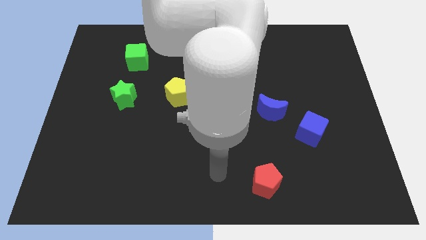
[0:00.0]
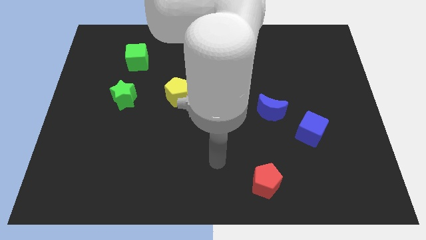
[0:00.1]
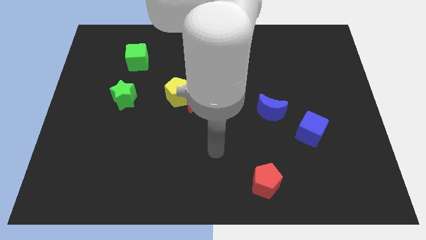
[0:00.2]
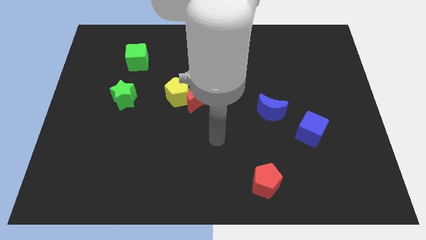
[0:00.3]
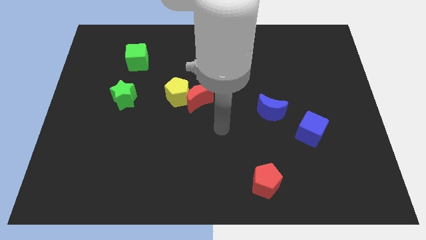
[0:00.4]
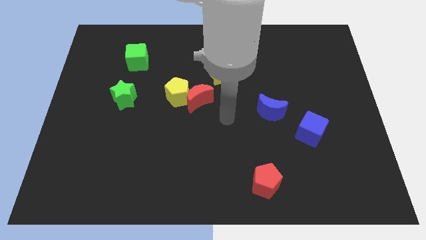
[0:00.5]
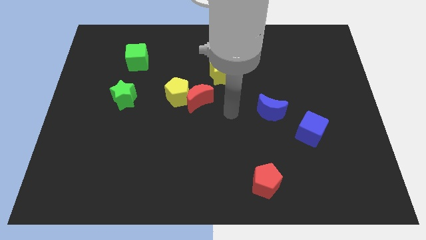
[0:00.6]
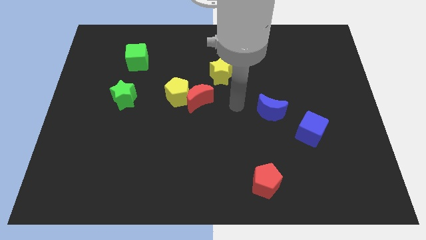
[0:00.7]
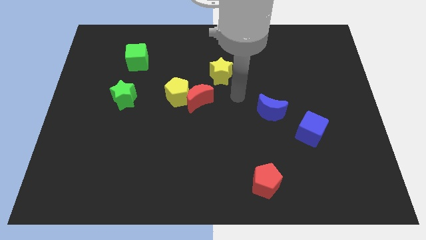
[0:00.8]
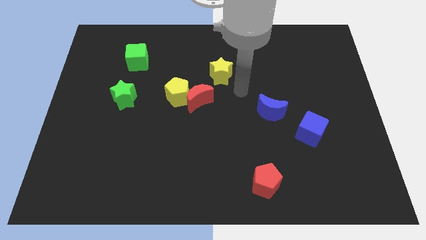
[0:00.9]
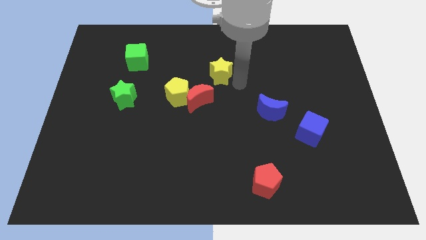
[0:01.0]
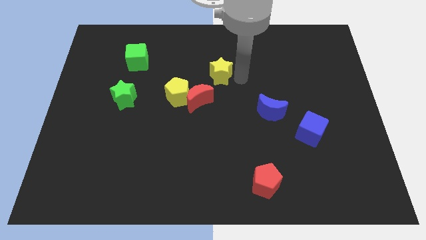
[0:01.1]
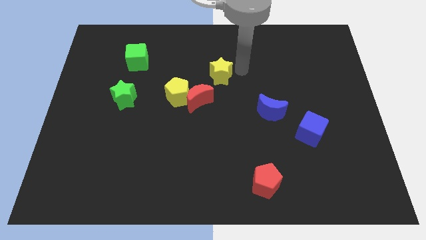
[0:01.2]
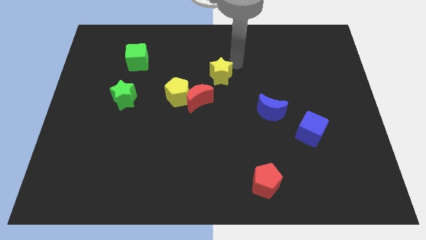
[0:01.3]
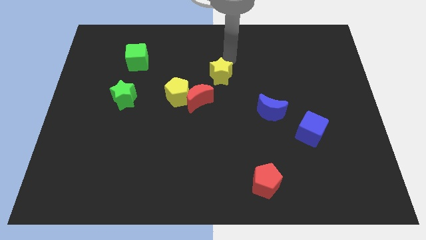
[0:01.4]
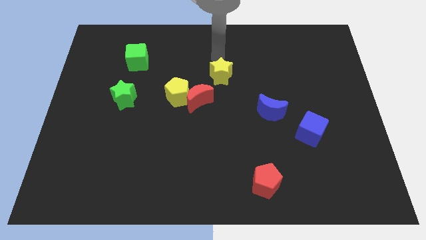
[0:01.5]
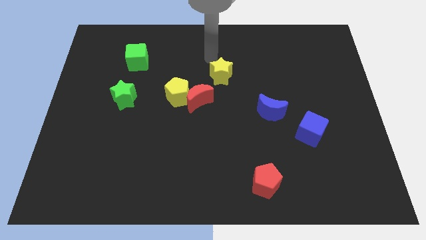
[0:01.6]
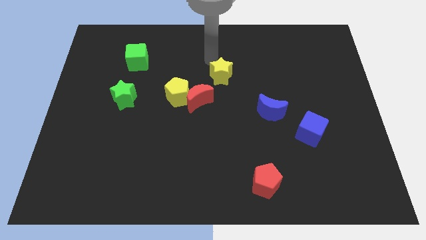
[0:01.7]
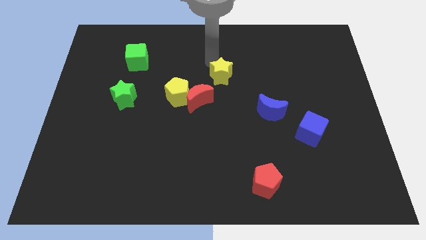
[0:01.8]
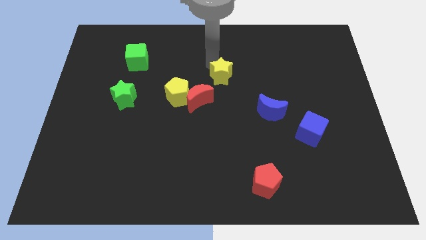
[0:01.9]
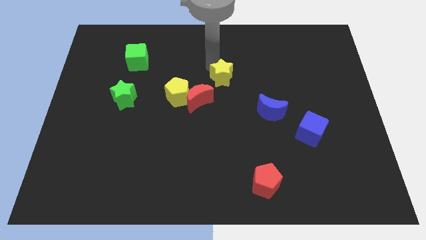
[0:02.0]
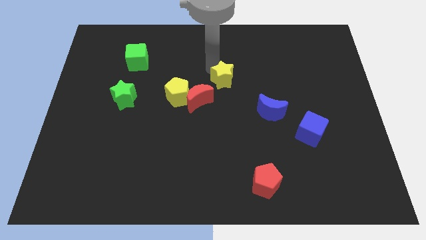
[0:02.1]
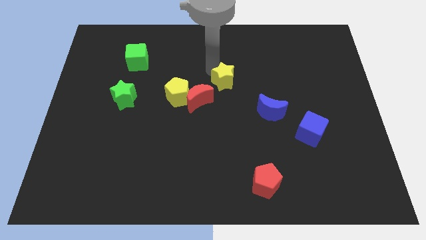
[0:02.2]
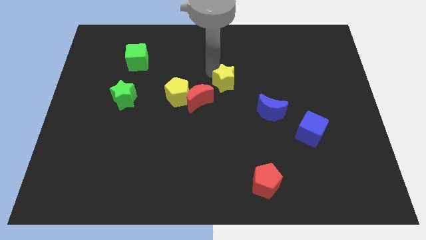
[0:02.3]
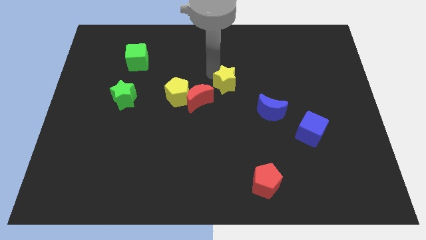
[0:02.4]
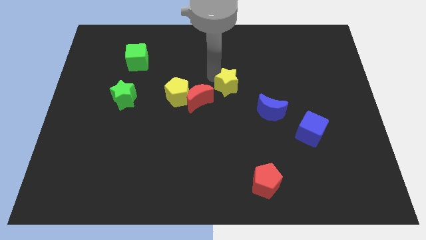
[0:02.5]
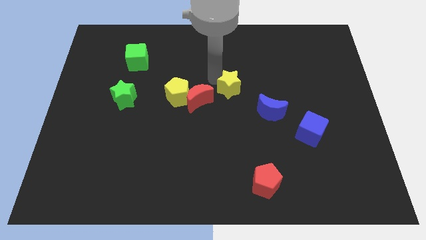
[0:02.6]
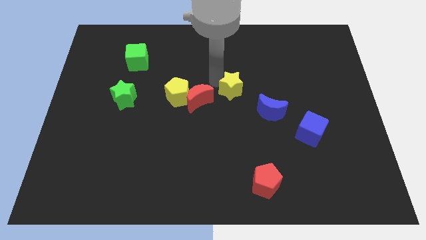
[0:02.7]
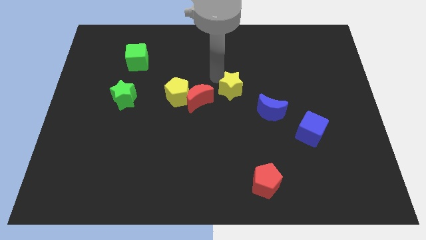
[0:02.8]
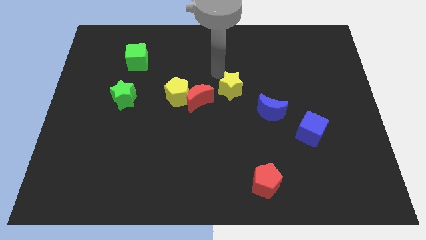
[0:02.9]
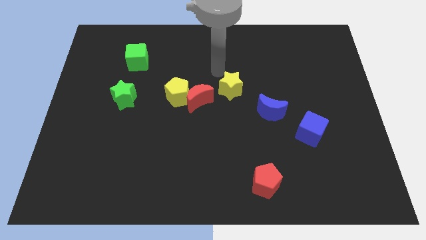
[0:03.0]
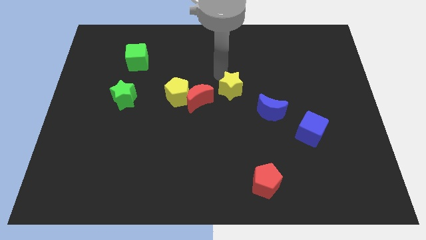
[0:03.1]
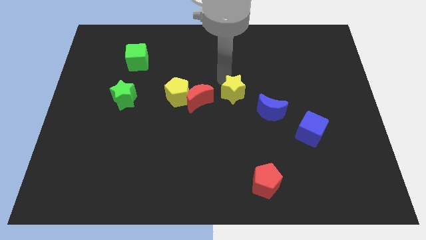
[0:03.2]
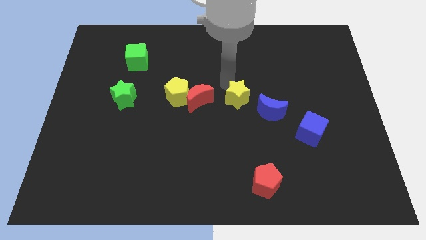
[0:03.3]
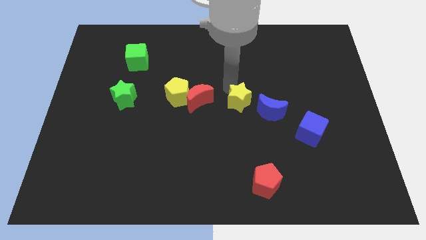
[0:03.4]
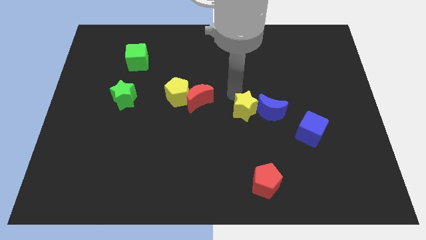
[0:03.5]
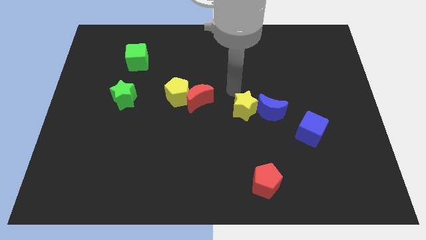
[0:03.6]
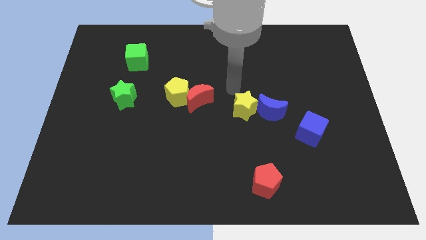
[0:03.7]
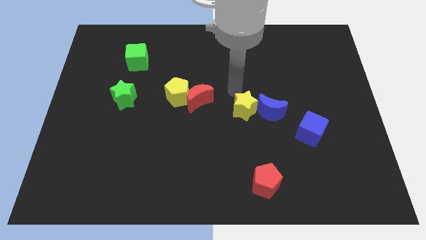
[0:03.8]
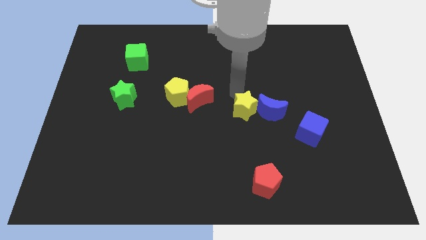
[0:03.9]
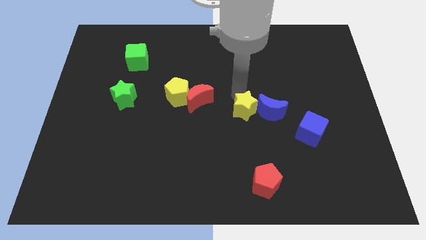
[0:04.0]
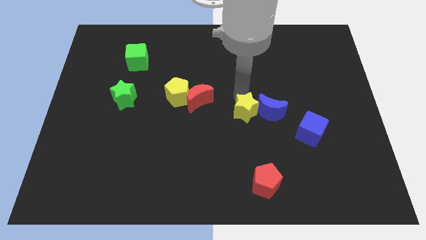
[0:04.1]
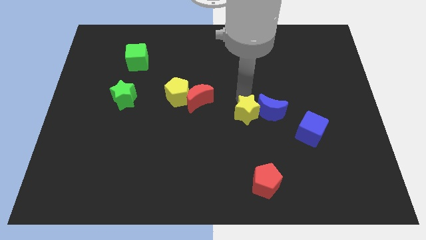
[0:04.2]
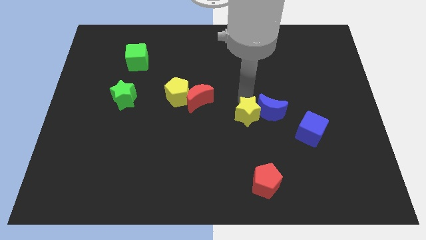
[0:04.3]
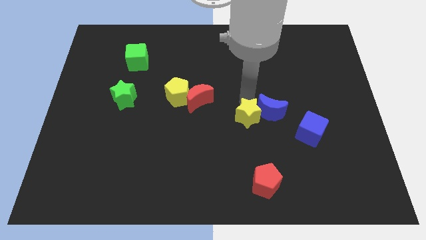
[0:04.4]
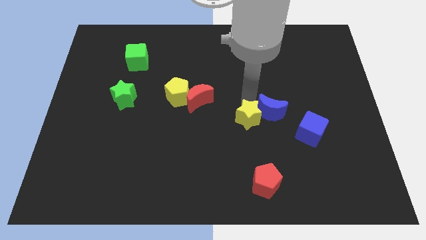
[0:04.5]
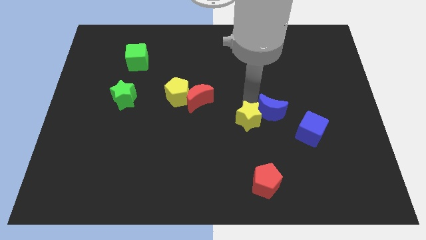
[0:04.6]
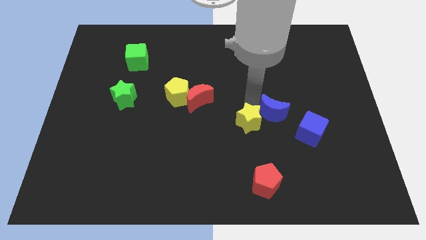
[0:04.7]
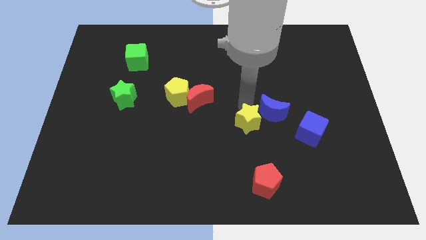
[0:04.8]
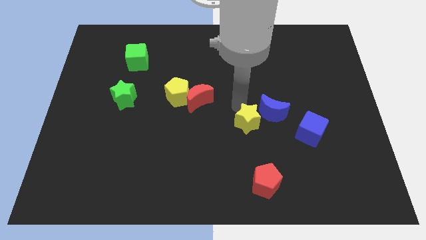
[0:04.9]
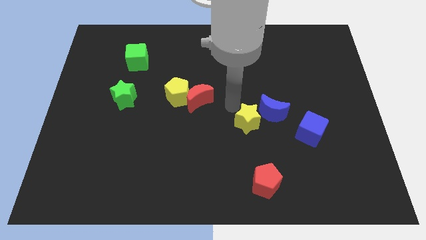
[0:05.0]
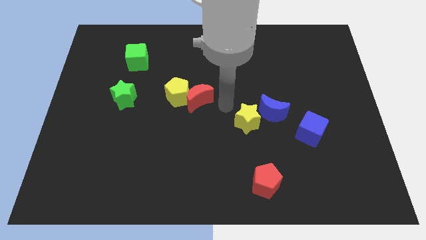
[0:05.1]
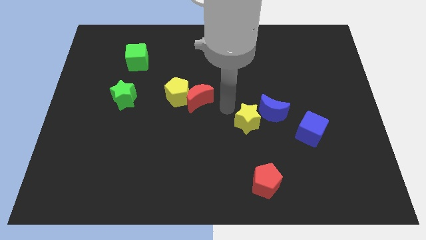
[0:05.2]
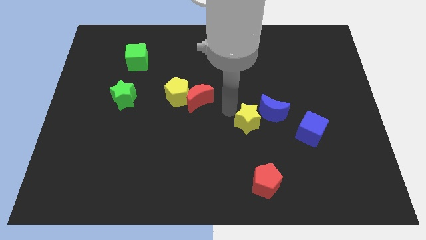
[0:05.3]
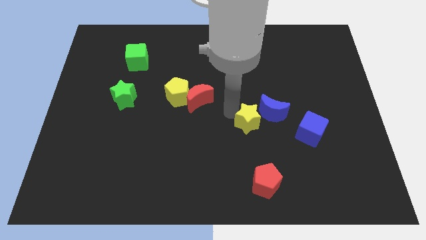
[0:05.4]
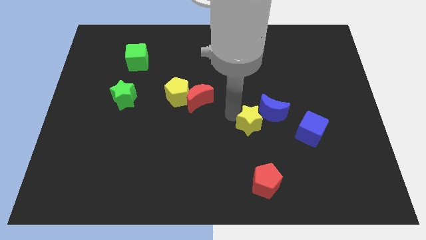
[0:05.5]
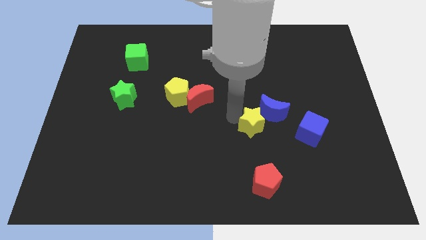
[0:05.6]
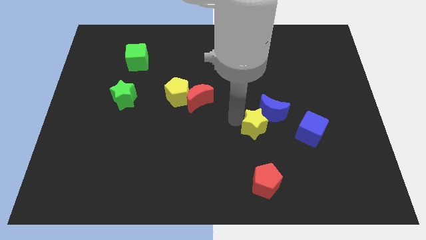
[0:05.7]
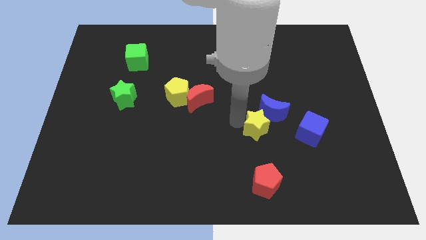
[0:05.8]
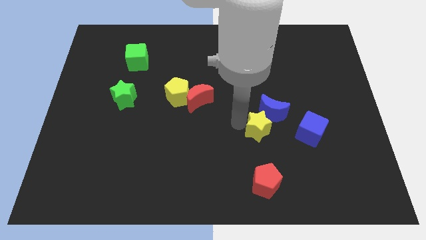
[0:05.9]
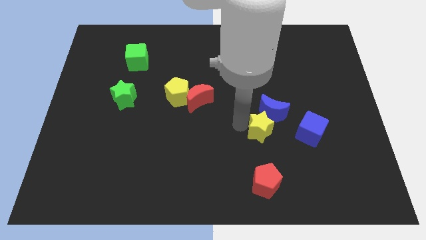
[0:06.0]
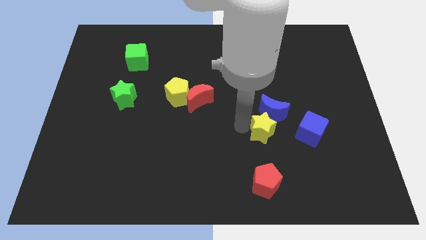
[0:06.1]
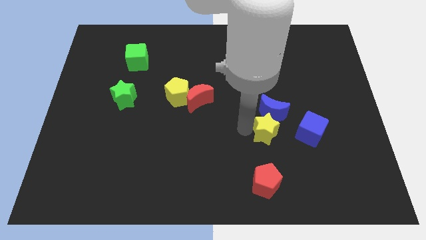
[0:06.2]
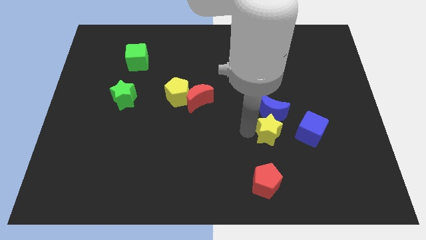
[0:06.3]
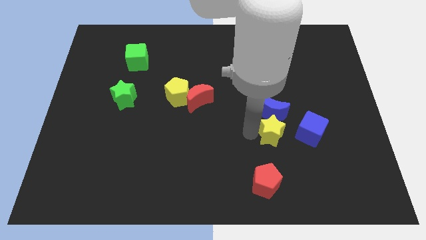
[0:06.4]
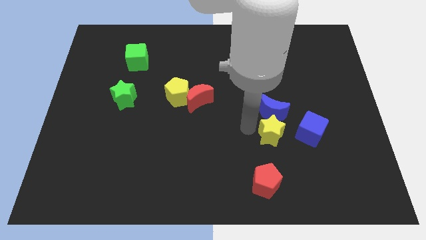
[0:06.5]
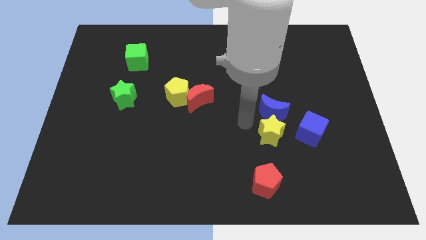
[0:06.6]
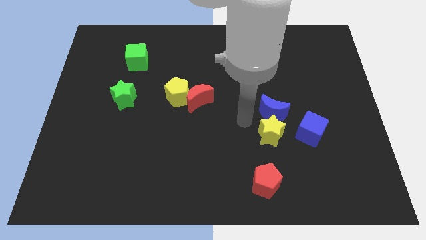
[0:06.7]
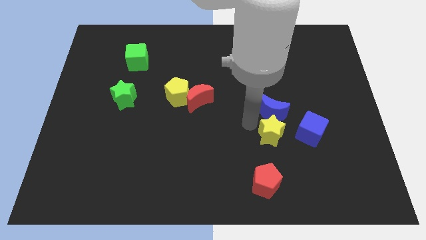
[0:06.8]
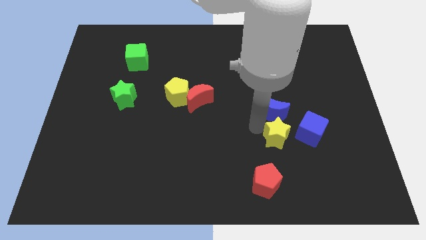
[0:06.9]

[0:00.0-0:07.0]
slide the yellow star downwards and then right

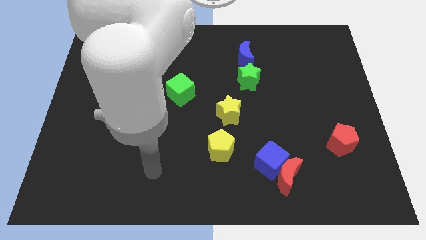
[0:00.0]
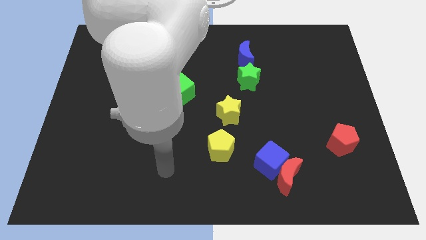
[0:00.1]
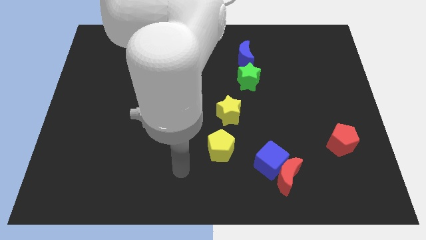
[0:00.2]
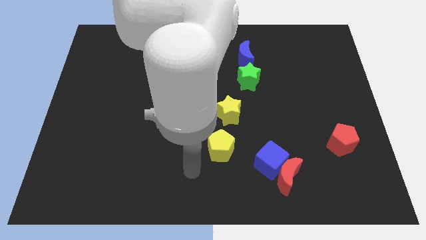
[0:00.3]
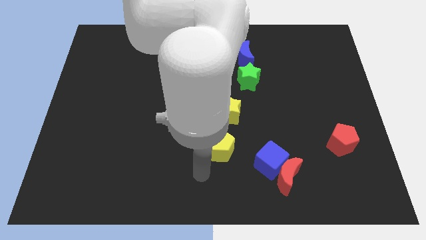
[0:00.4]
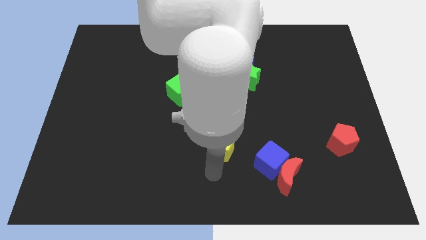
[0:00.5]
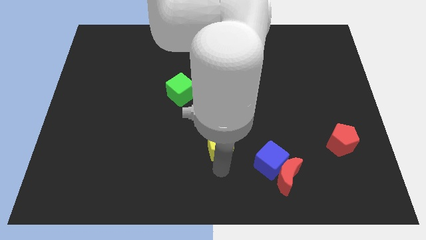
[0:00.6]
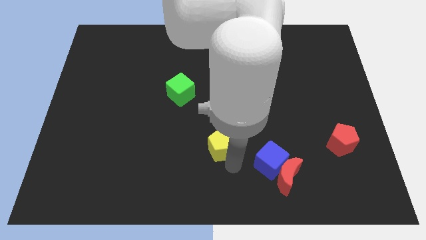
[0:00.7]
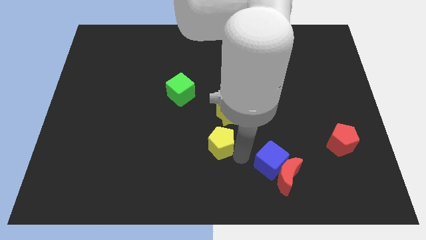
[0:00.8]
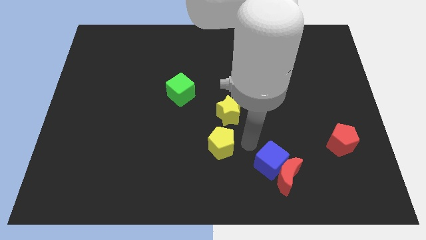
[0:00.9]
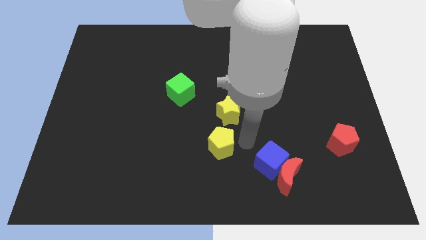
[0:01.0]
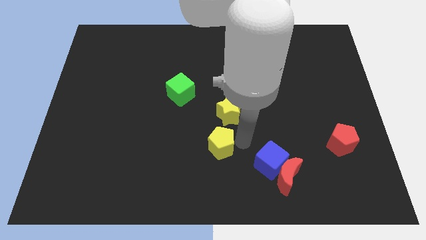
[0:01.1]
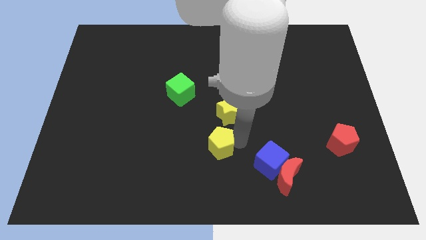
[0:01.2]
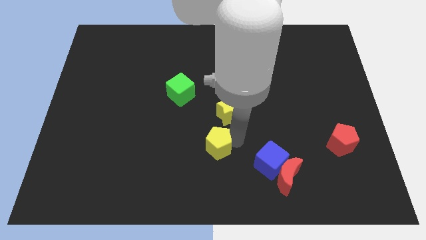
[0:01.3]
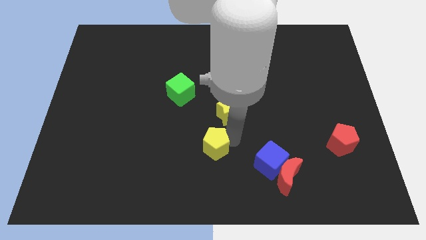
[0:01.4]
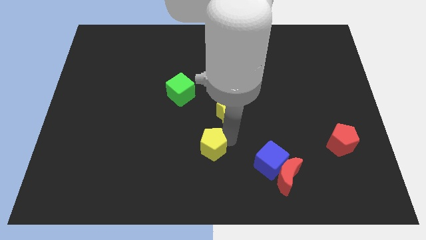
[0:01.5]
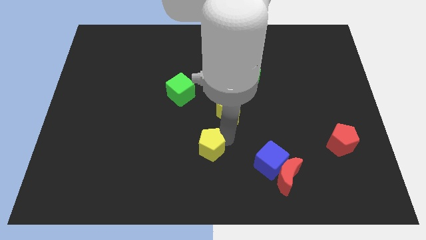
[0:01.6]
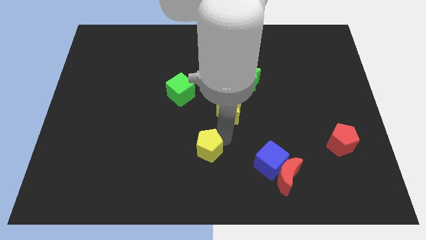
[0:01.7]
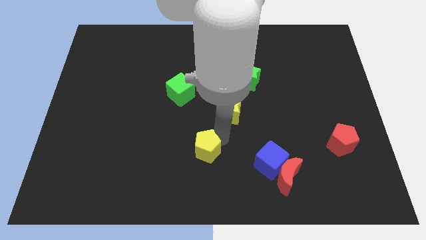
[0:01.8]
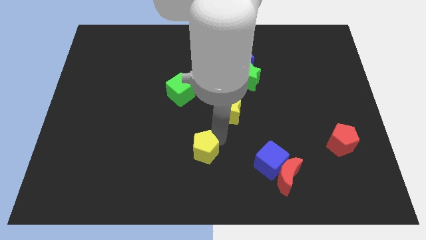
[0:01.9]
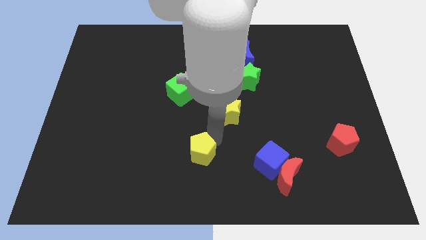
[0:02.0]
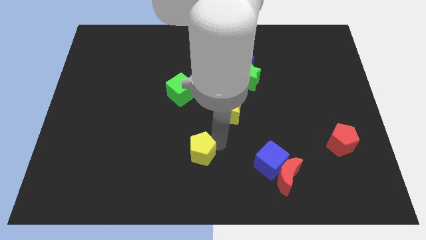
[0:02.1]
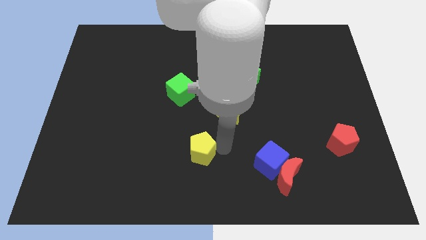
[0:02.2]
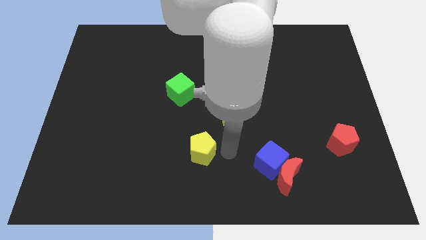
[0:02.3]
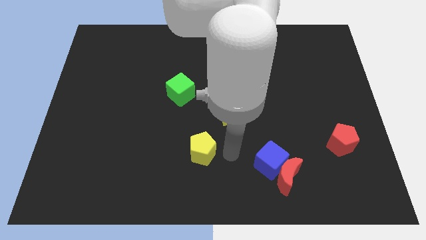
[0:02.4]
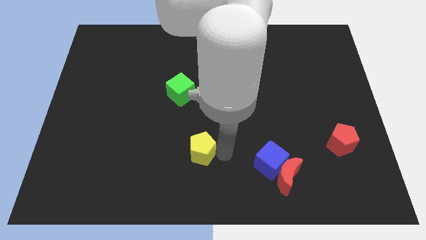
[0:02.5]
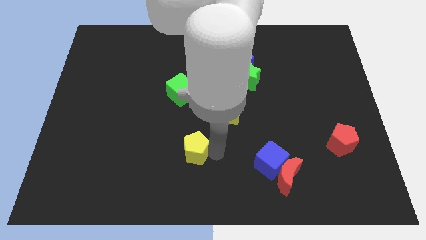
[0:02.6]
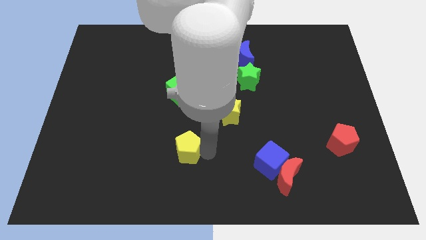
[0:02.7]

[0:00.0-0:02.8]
push the yellow pentagon slightly left
